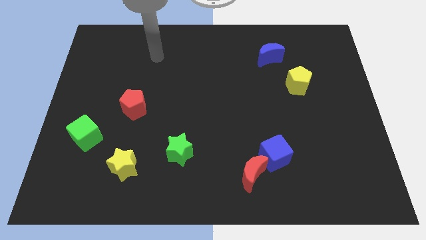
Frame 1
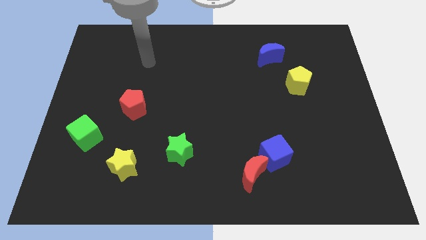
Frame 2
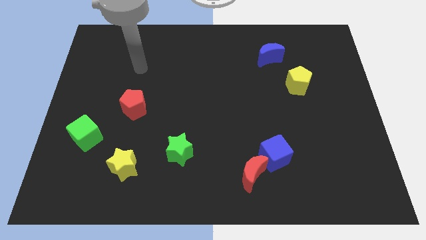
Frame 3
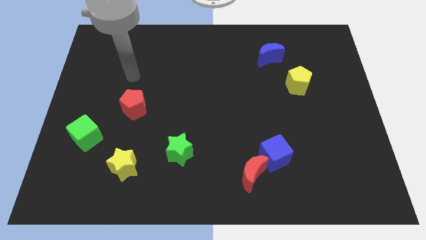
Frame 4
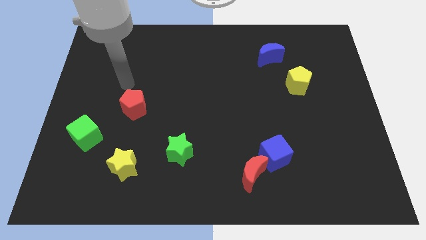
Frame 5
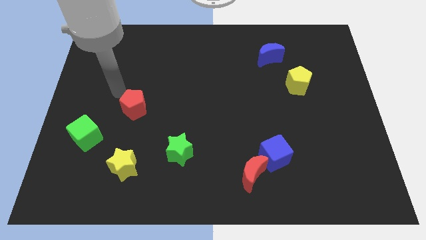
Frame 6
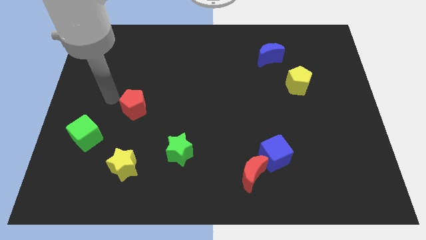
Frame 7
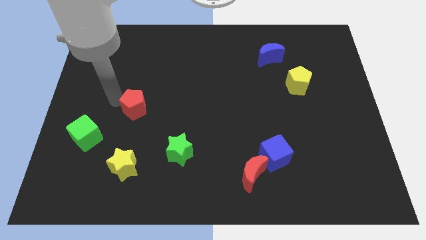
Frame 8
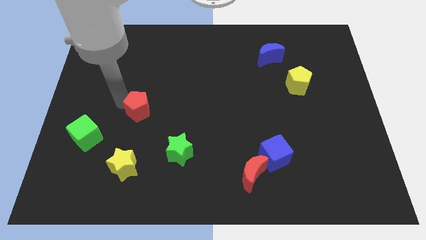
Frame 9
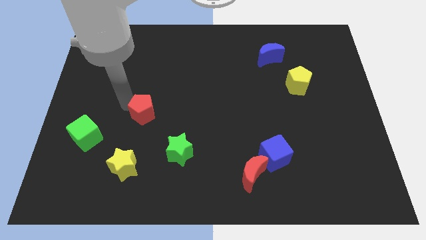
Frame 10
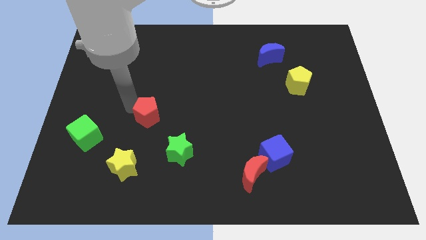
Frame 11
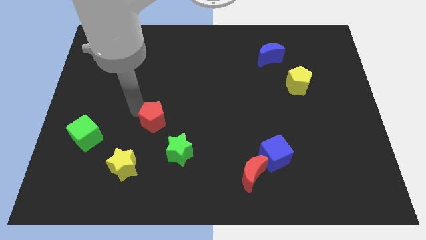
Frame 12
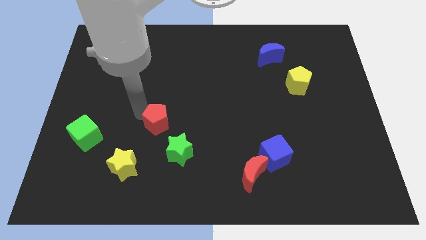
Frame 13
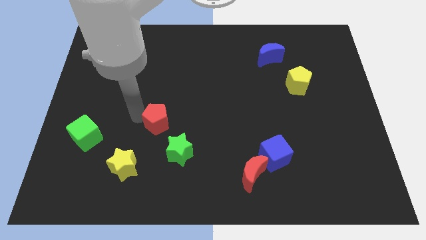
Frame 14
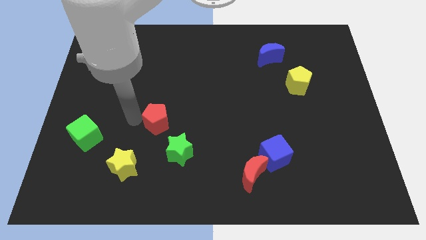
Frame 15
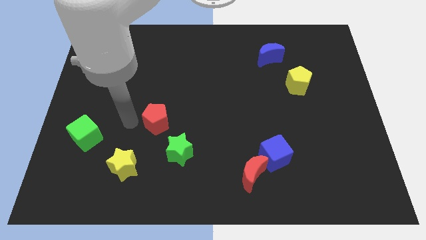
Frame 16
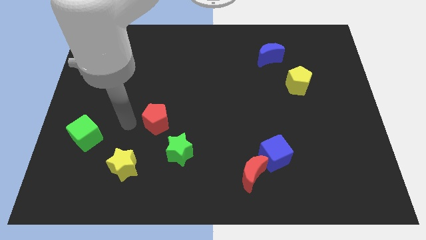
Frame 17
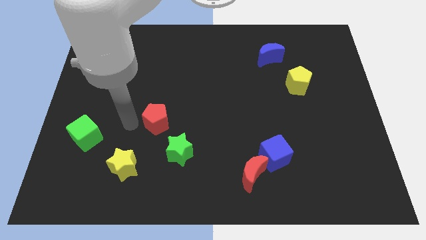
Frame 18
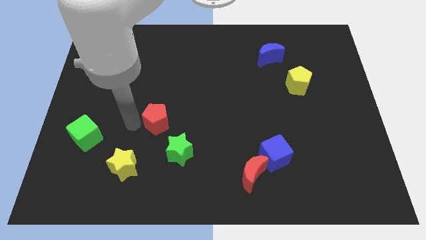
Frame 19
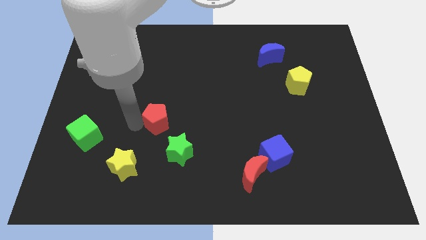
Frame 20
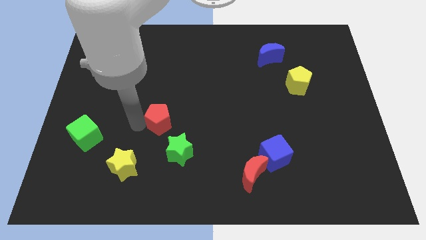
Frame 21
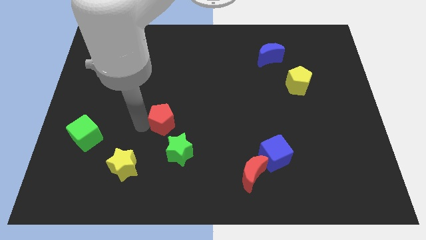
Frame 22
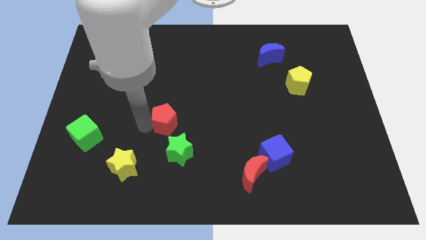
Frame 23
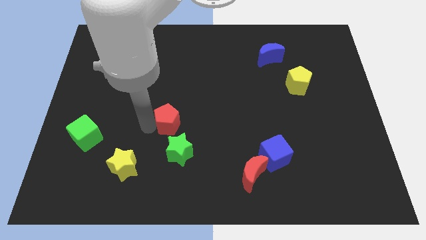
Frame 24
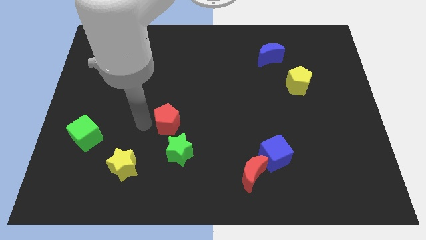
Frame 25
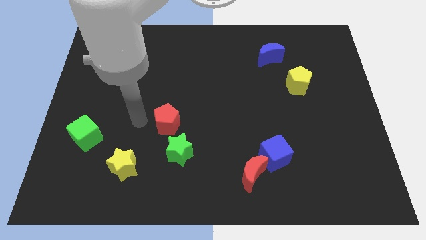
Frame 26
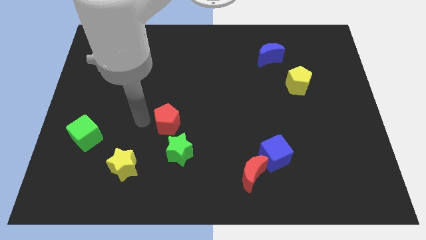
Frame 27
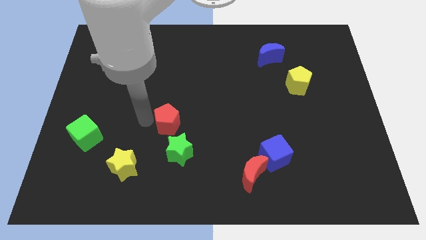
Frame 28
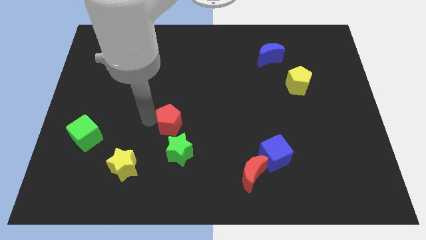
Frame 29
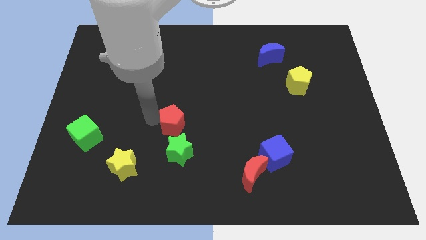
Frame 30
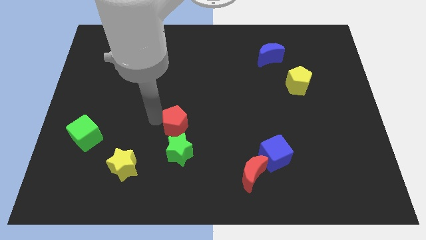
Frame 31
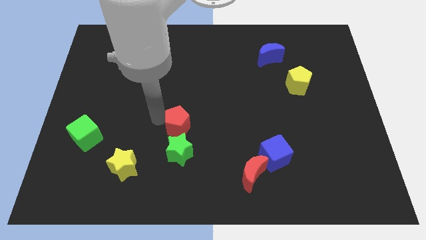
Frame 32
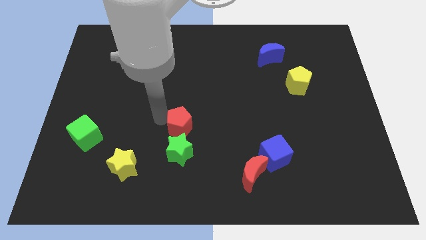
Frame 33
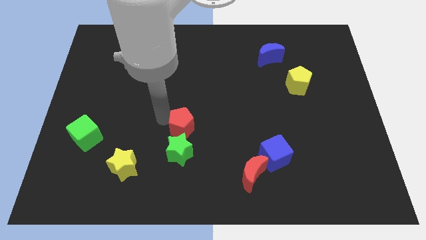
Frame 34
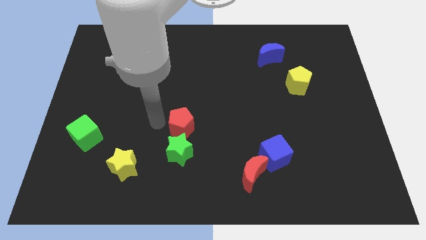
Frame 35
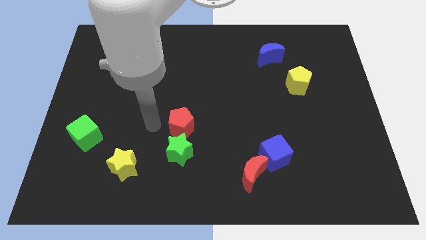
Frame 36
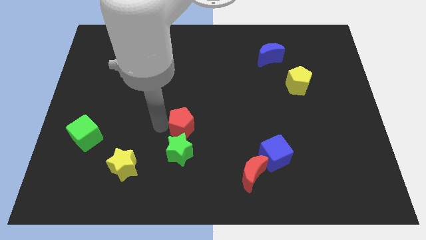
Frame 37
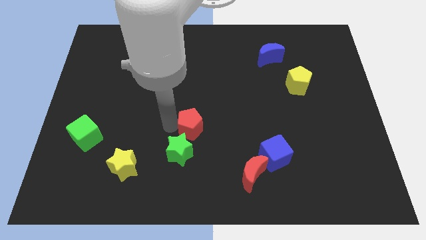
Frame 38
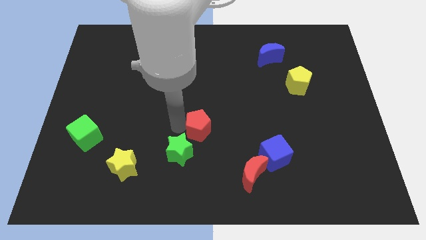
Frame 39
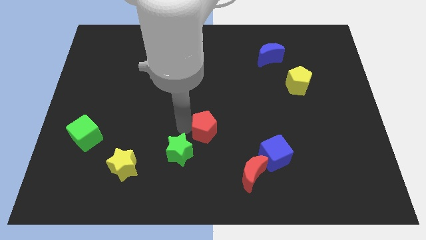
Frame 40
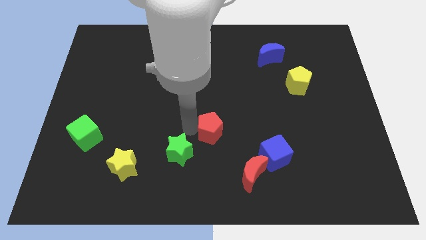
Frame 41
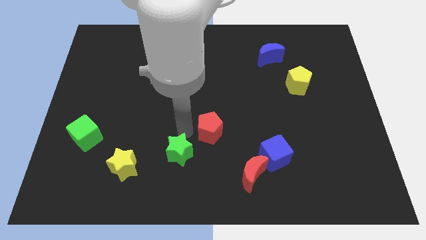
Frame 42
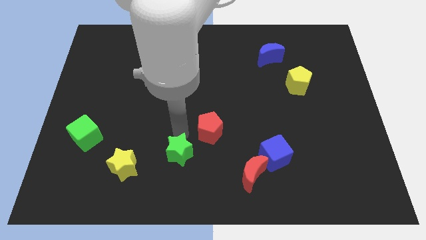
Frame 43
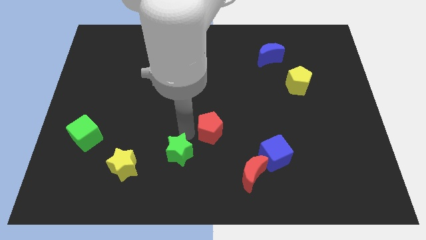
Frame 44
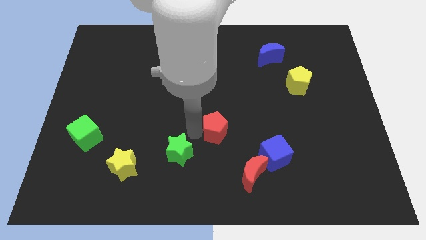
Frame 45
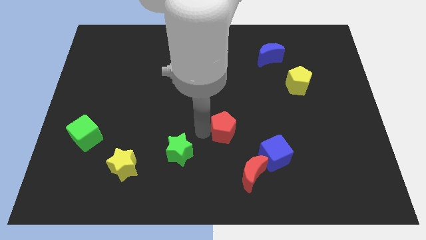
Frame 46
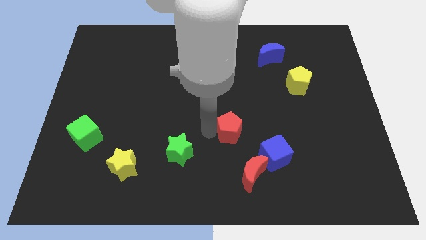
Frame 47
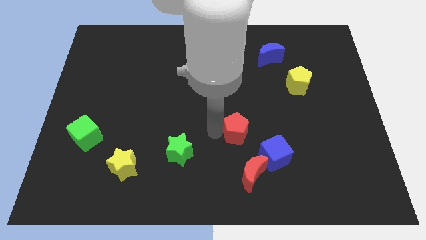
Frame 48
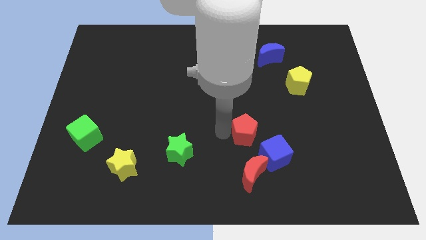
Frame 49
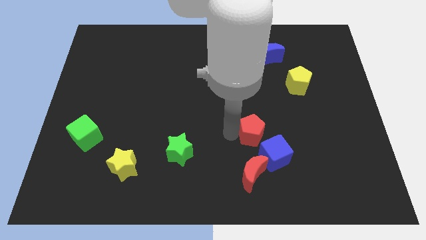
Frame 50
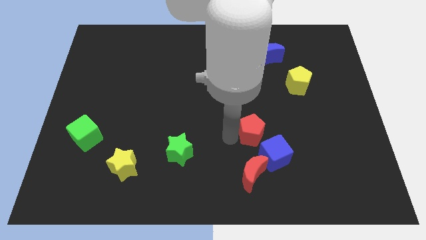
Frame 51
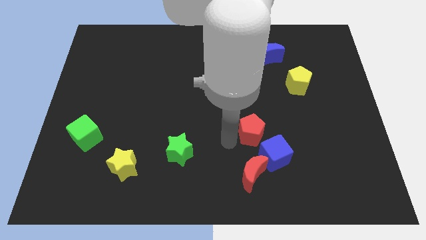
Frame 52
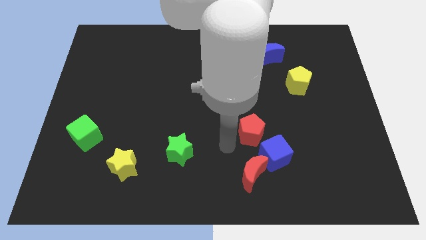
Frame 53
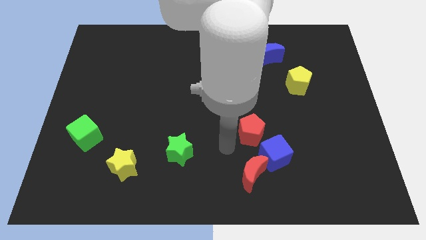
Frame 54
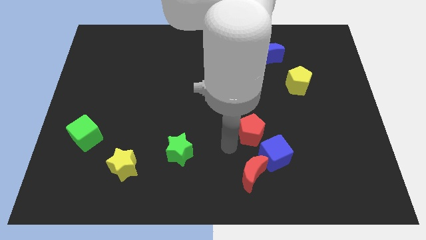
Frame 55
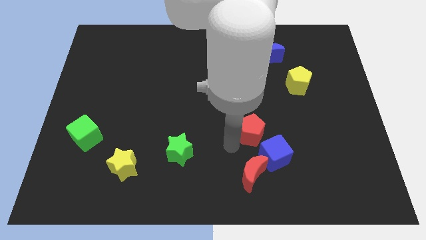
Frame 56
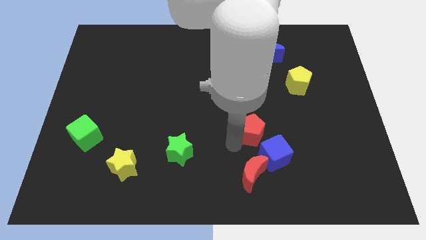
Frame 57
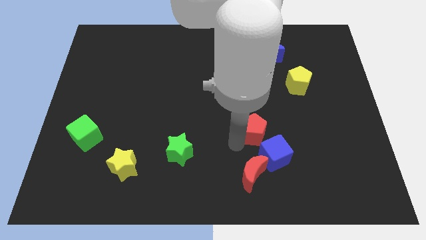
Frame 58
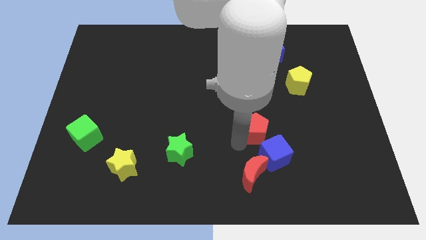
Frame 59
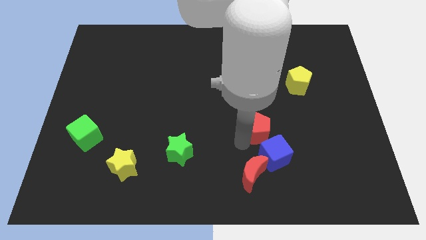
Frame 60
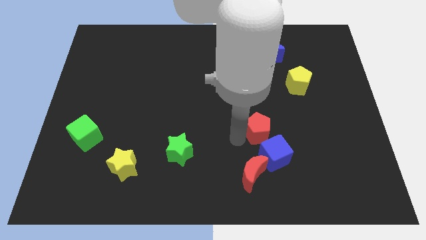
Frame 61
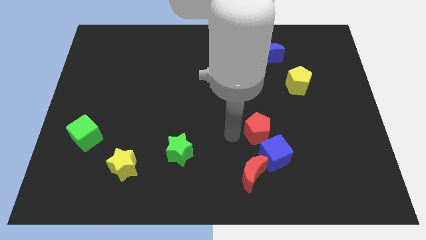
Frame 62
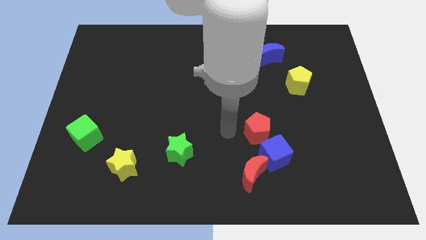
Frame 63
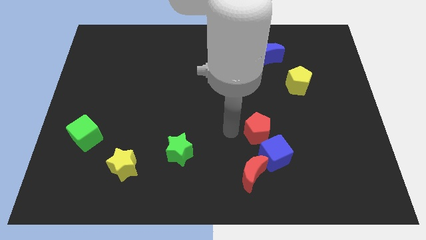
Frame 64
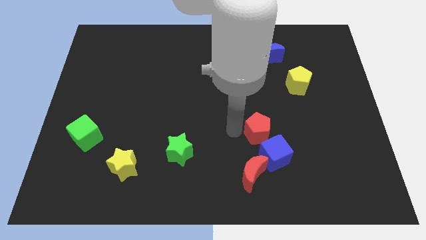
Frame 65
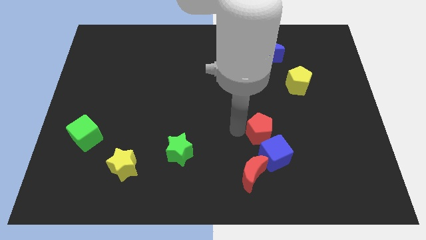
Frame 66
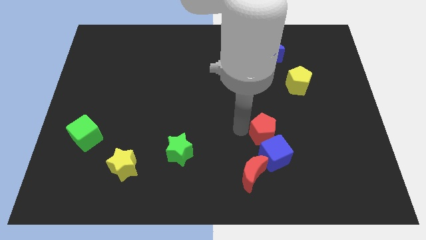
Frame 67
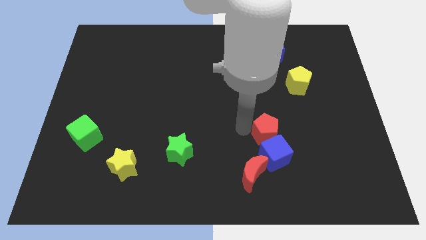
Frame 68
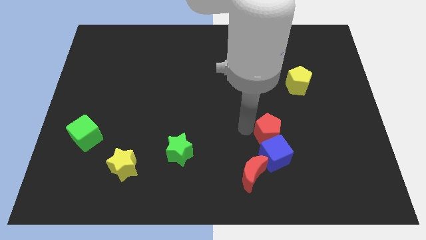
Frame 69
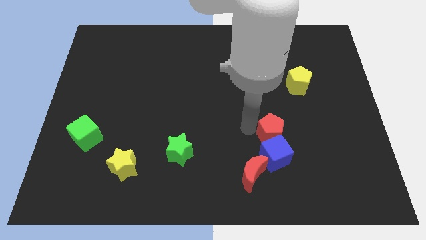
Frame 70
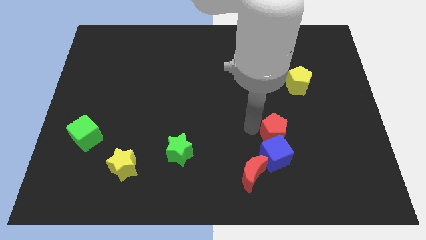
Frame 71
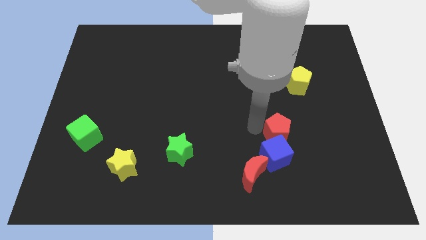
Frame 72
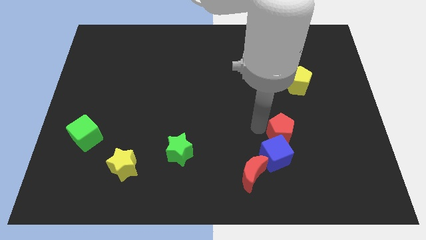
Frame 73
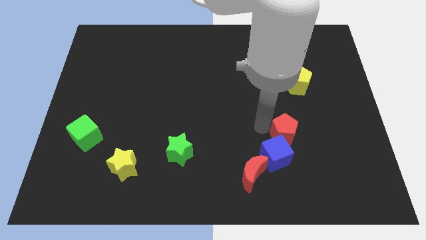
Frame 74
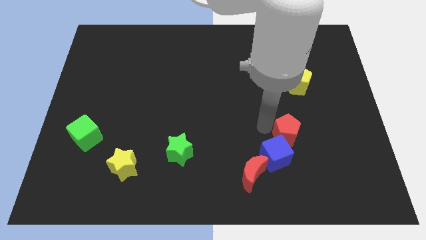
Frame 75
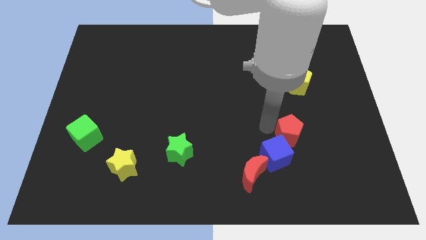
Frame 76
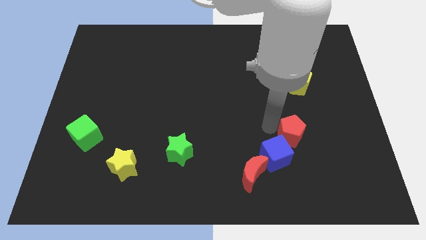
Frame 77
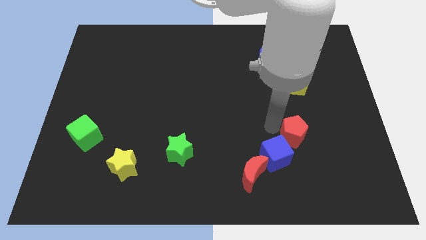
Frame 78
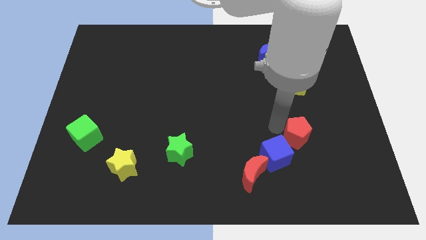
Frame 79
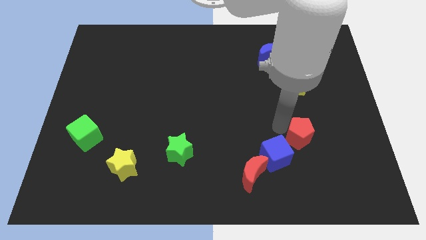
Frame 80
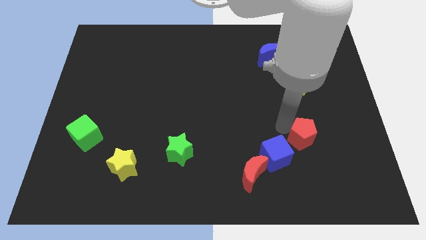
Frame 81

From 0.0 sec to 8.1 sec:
slide the red pentagon right of the blue cube
